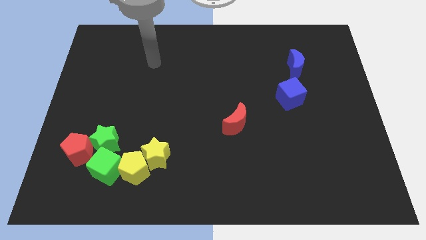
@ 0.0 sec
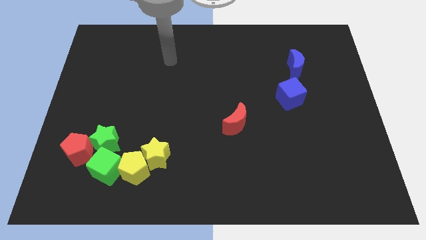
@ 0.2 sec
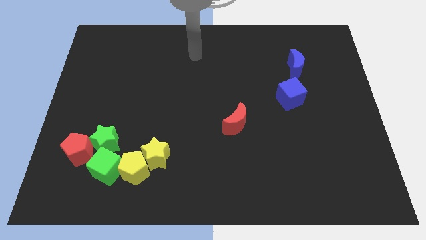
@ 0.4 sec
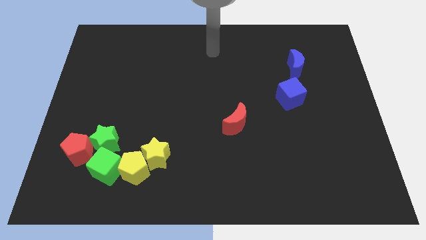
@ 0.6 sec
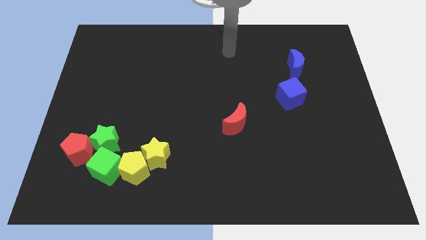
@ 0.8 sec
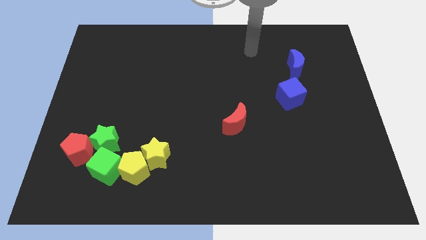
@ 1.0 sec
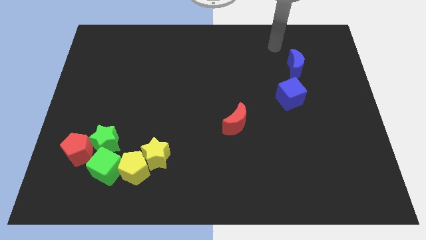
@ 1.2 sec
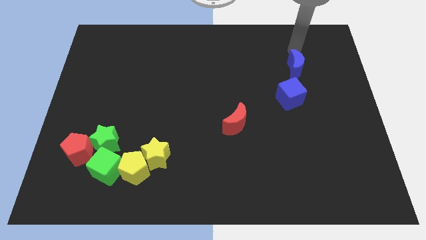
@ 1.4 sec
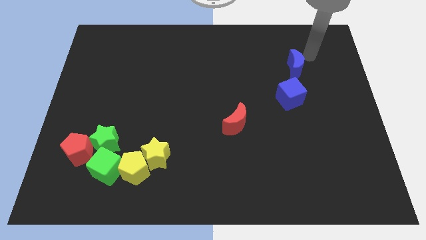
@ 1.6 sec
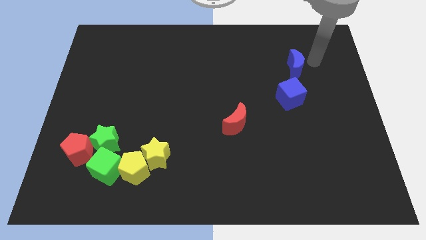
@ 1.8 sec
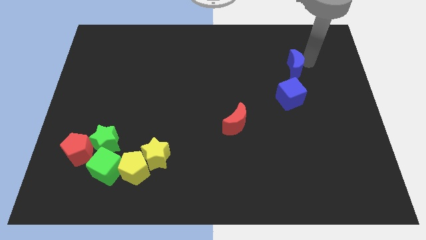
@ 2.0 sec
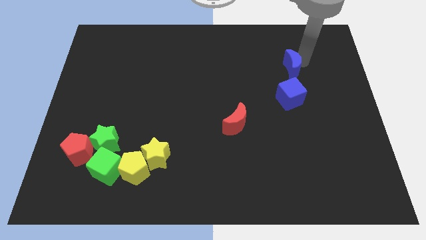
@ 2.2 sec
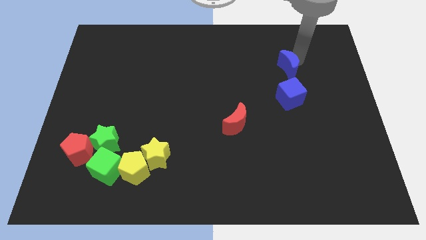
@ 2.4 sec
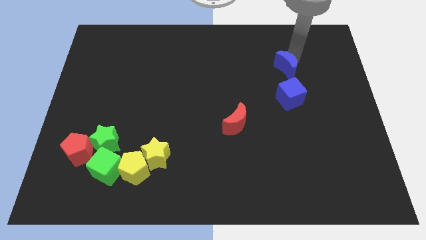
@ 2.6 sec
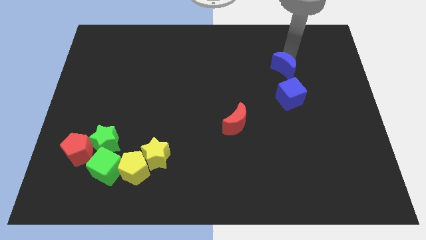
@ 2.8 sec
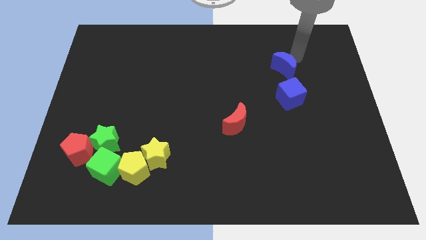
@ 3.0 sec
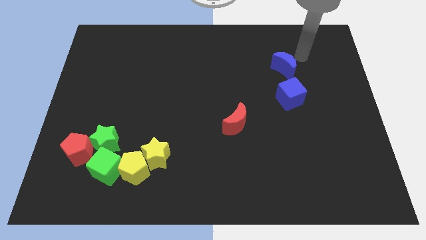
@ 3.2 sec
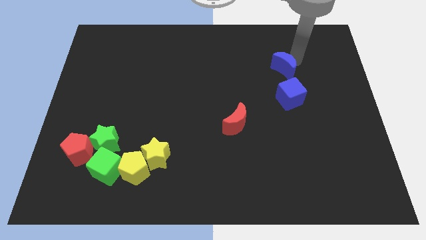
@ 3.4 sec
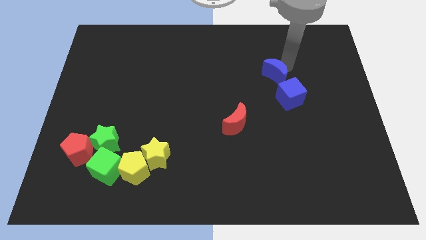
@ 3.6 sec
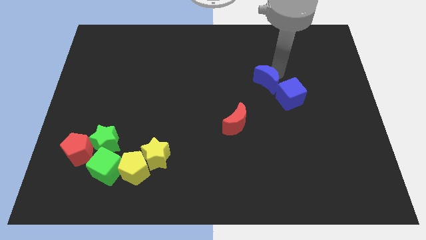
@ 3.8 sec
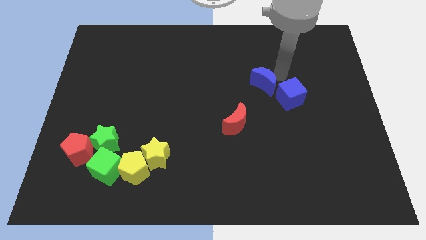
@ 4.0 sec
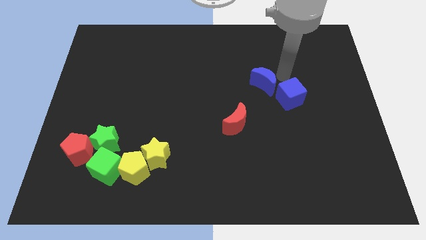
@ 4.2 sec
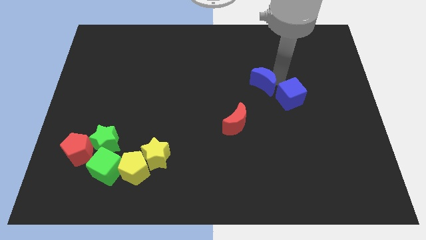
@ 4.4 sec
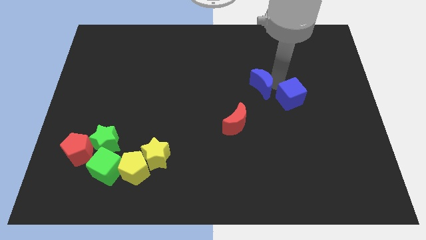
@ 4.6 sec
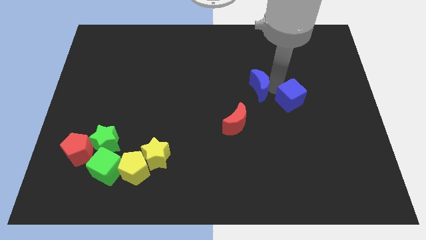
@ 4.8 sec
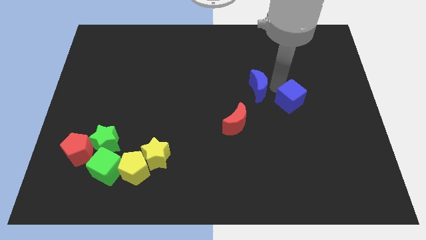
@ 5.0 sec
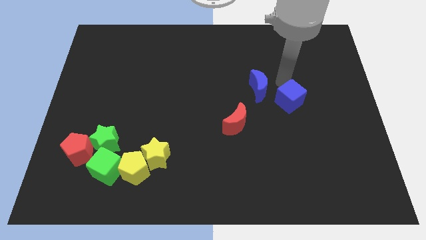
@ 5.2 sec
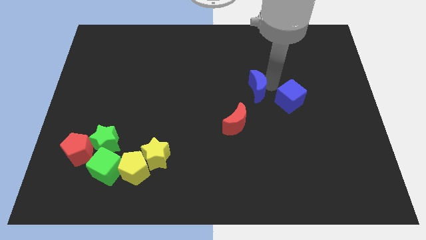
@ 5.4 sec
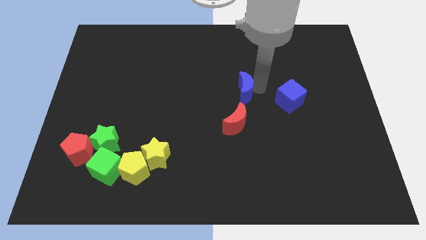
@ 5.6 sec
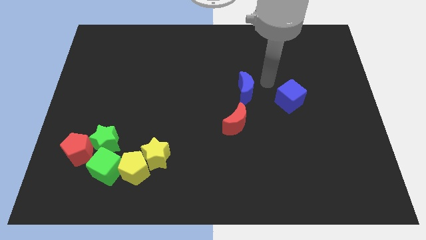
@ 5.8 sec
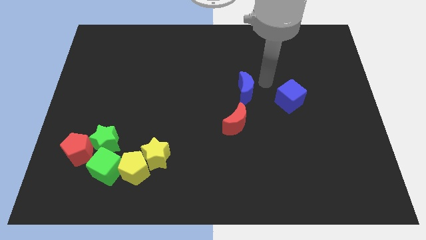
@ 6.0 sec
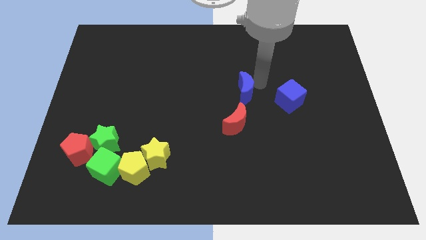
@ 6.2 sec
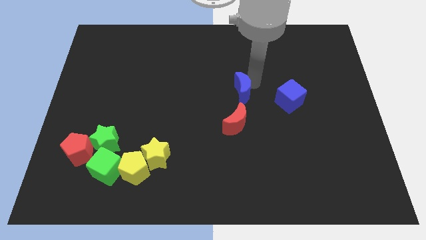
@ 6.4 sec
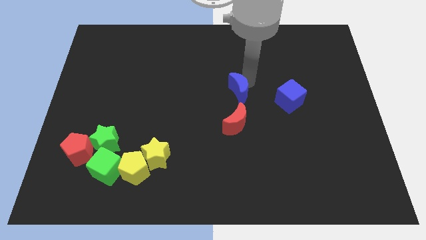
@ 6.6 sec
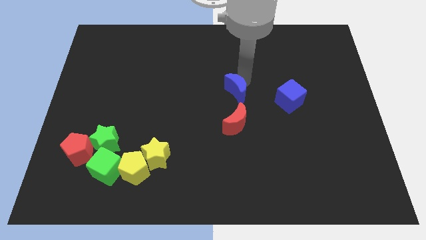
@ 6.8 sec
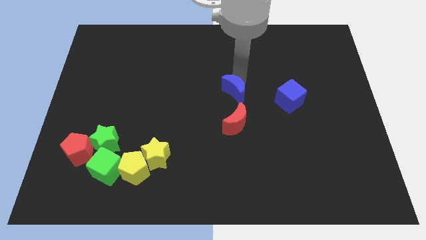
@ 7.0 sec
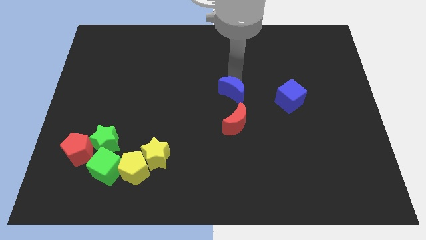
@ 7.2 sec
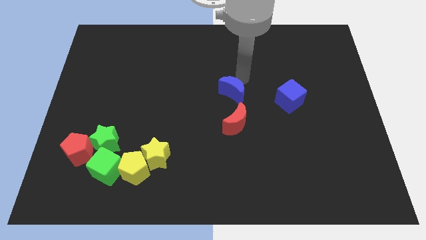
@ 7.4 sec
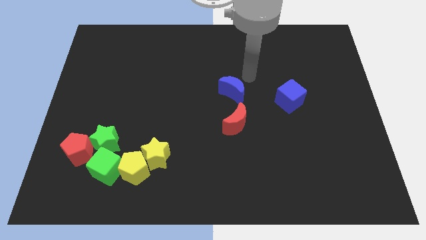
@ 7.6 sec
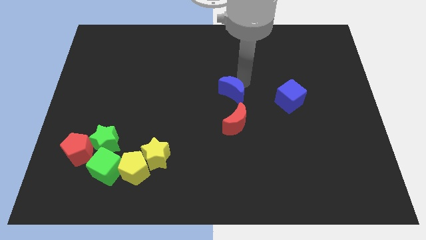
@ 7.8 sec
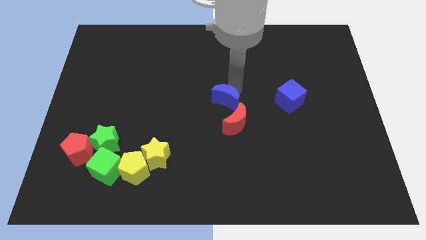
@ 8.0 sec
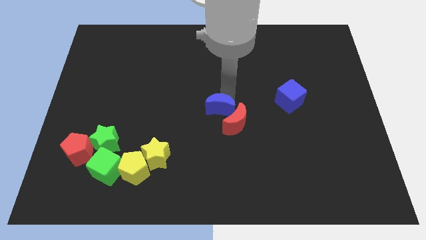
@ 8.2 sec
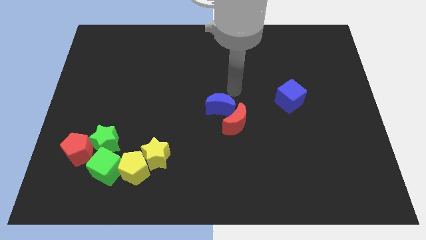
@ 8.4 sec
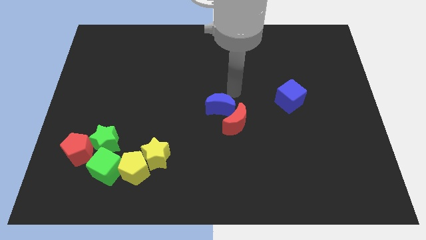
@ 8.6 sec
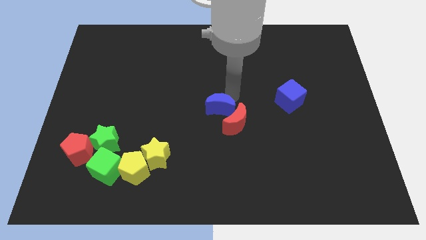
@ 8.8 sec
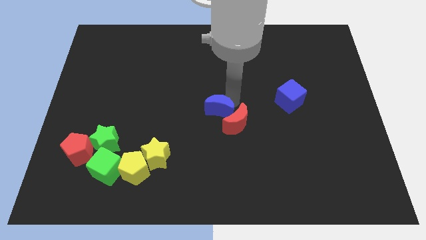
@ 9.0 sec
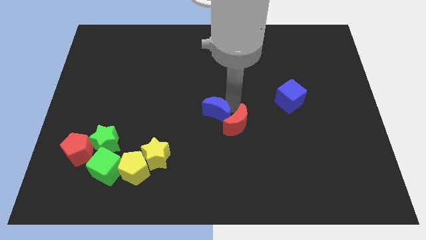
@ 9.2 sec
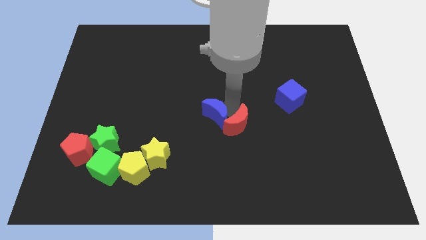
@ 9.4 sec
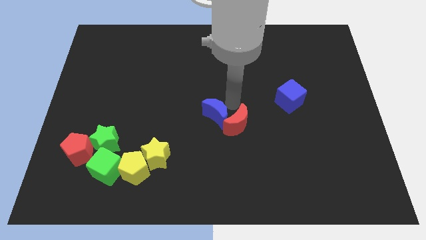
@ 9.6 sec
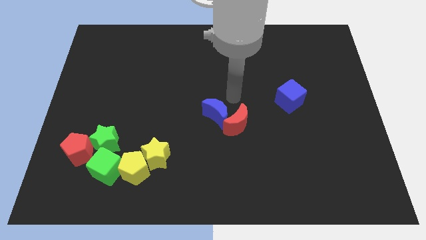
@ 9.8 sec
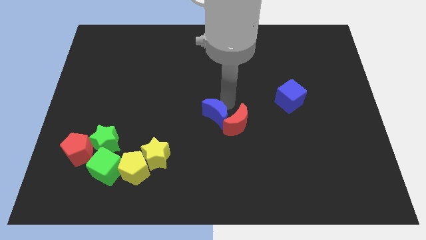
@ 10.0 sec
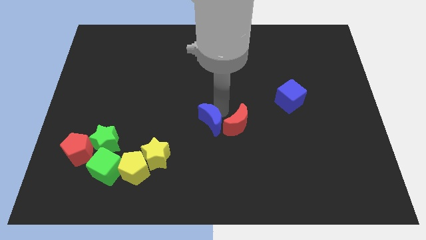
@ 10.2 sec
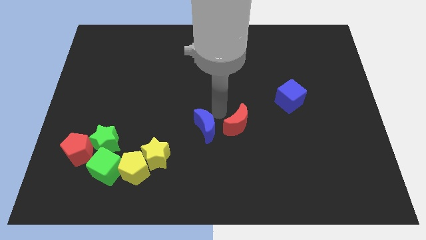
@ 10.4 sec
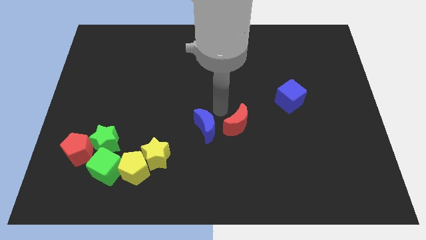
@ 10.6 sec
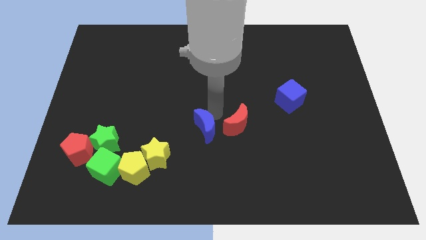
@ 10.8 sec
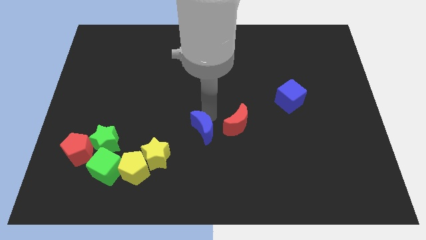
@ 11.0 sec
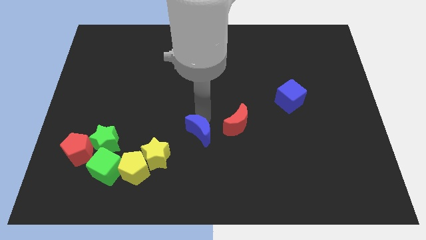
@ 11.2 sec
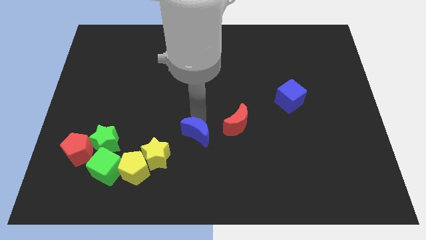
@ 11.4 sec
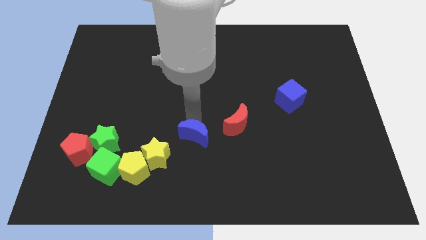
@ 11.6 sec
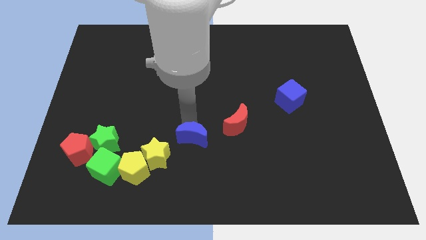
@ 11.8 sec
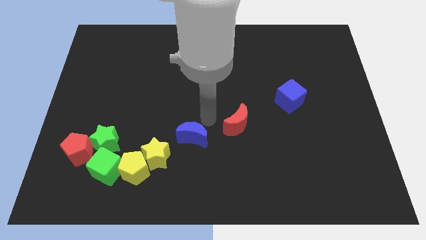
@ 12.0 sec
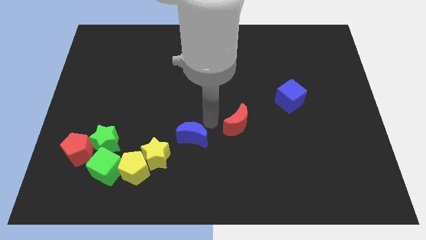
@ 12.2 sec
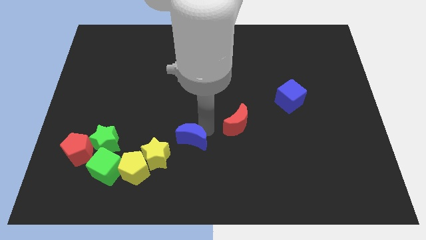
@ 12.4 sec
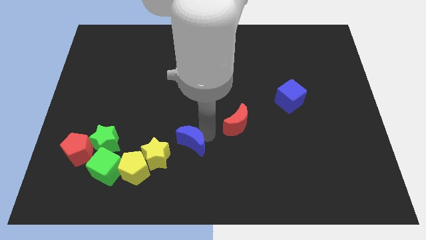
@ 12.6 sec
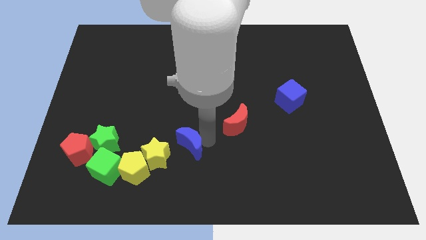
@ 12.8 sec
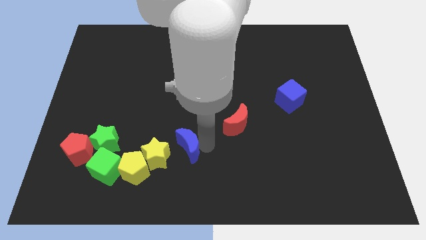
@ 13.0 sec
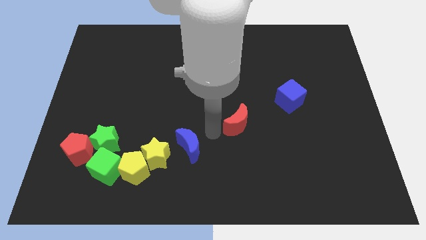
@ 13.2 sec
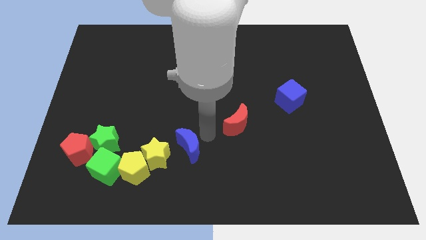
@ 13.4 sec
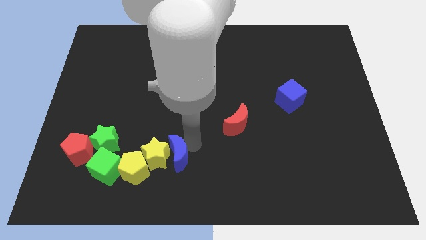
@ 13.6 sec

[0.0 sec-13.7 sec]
move the blue moon right of the green cube
